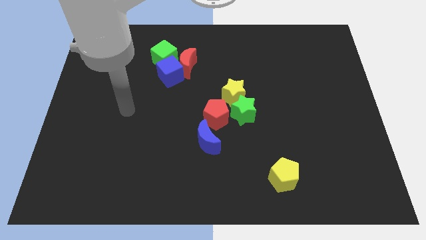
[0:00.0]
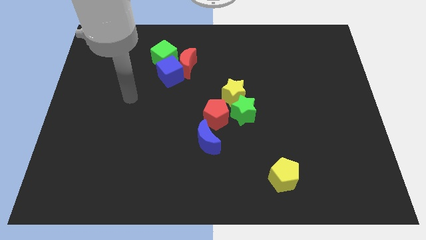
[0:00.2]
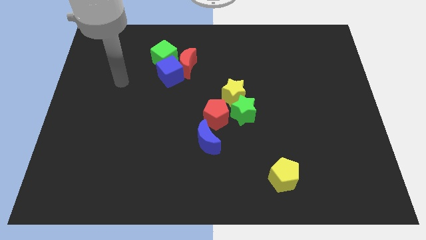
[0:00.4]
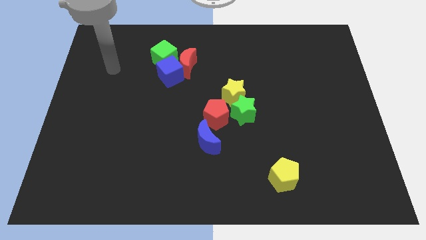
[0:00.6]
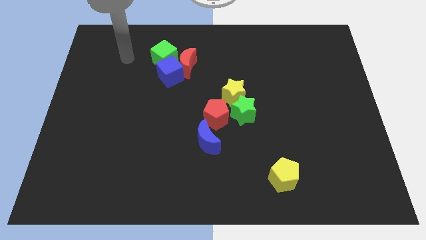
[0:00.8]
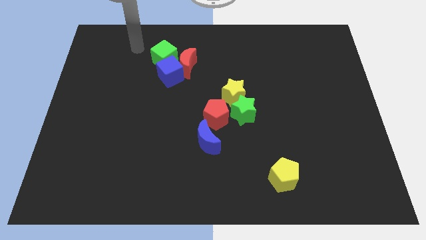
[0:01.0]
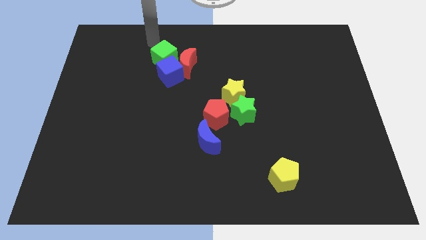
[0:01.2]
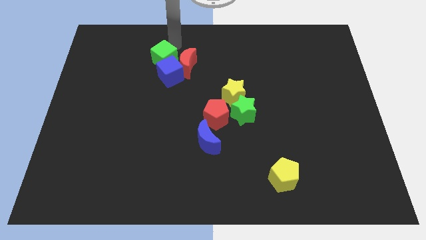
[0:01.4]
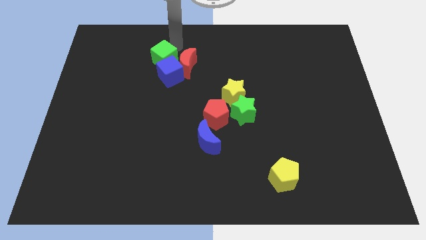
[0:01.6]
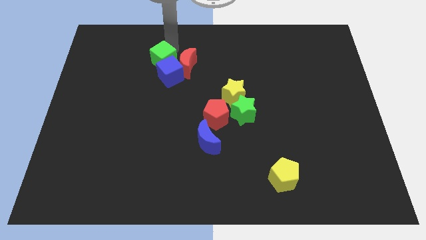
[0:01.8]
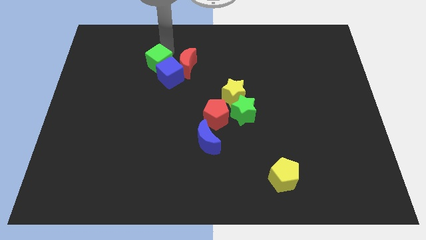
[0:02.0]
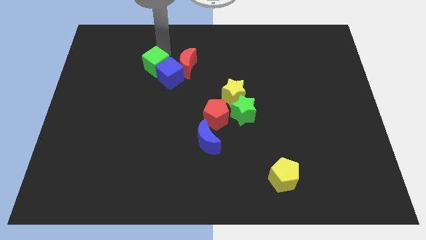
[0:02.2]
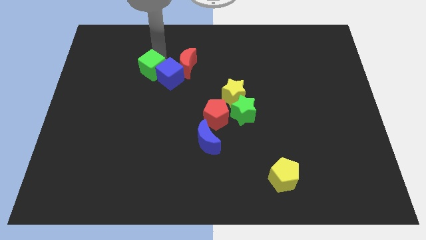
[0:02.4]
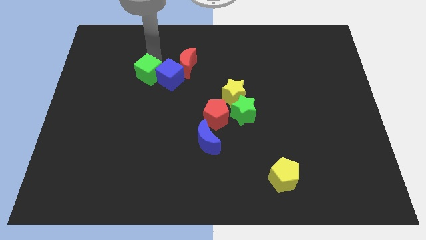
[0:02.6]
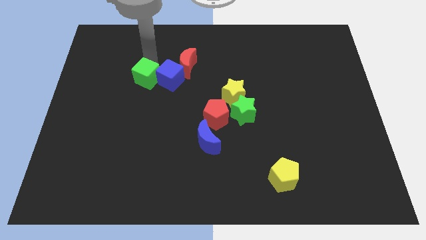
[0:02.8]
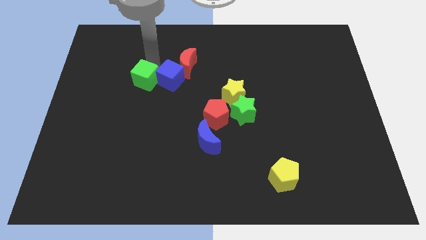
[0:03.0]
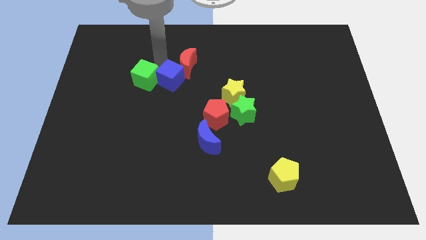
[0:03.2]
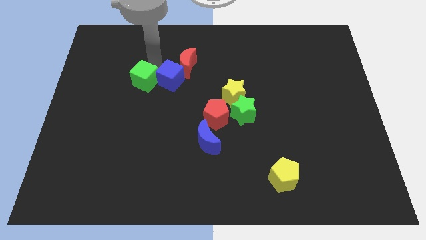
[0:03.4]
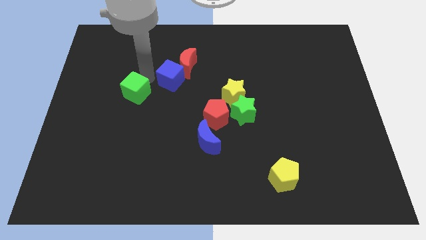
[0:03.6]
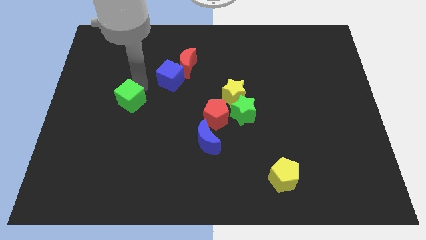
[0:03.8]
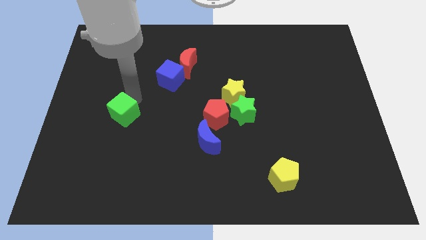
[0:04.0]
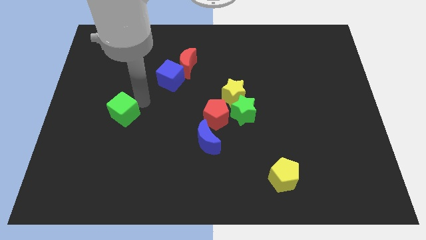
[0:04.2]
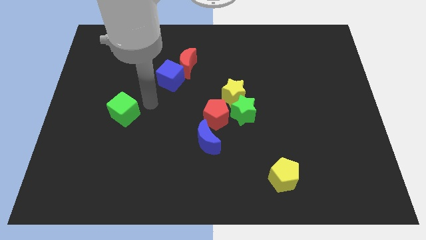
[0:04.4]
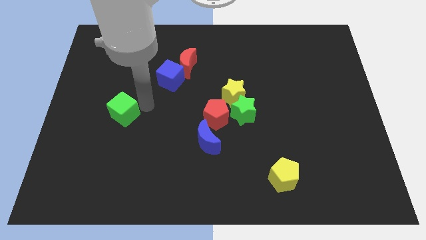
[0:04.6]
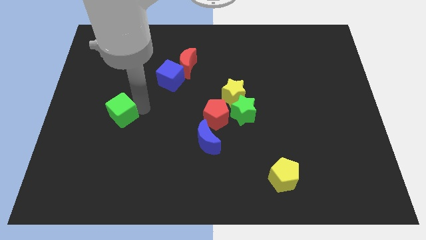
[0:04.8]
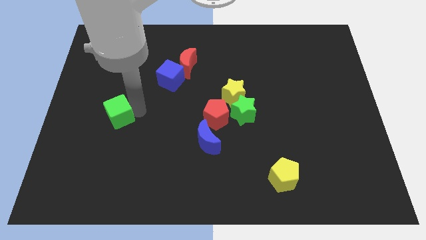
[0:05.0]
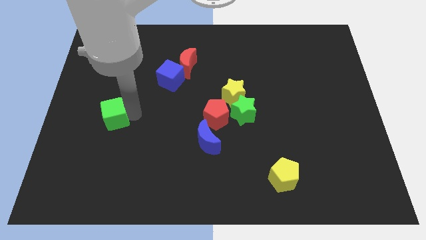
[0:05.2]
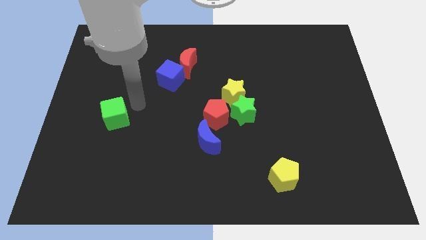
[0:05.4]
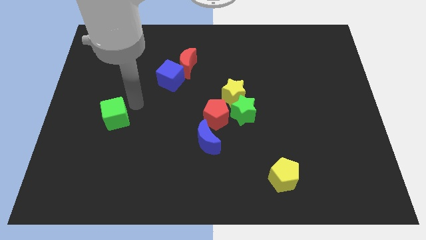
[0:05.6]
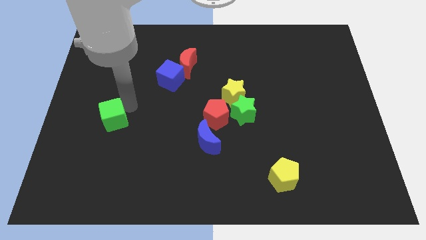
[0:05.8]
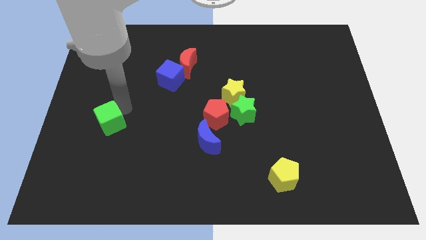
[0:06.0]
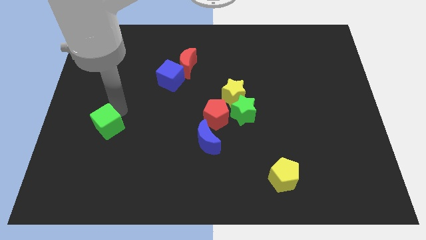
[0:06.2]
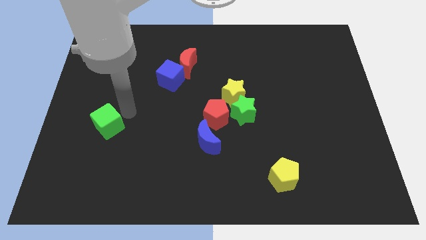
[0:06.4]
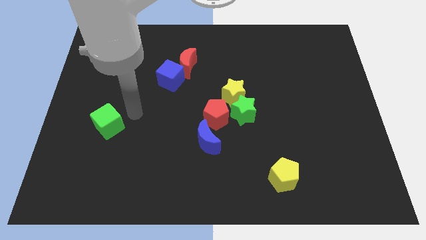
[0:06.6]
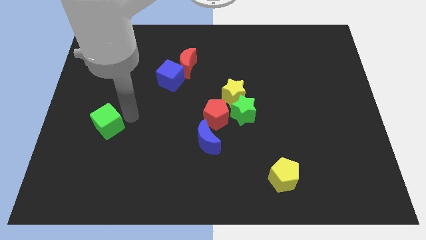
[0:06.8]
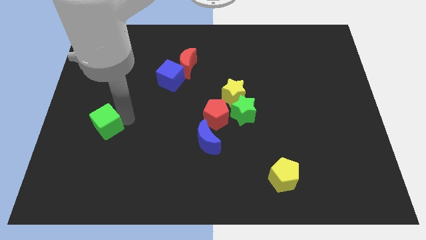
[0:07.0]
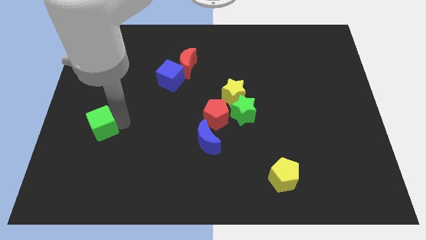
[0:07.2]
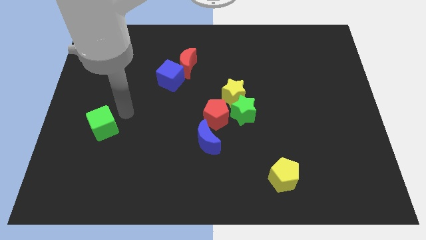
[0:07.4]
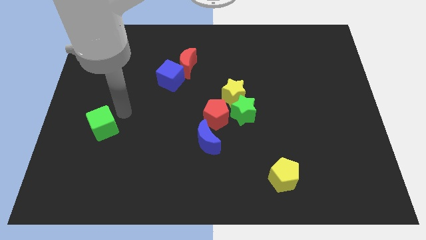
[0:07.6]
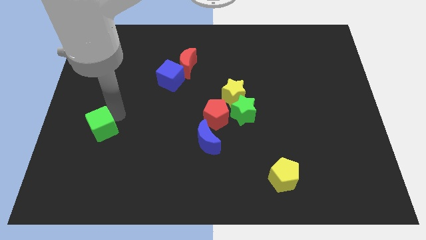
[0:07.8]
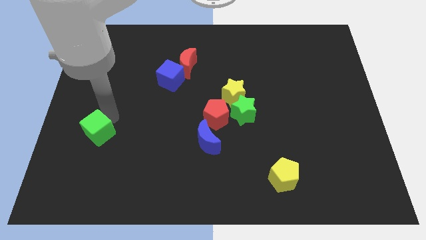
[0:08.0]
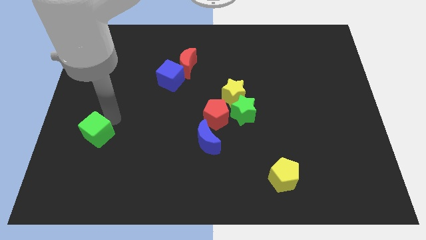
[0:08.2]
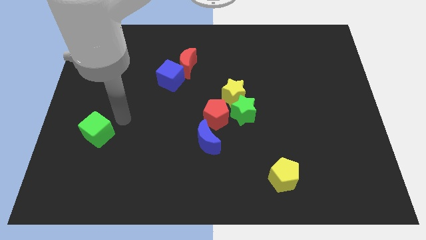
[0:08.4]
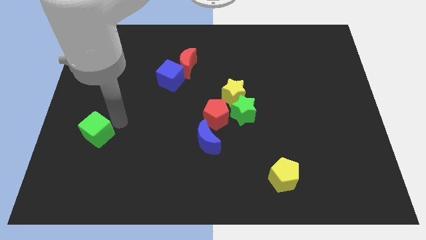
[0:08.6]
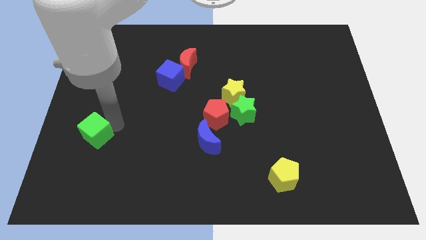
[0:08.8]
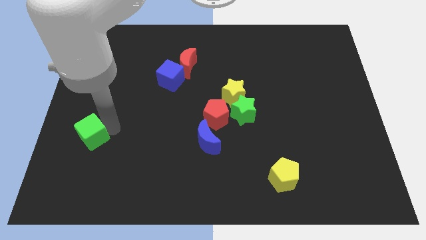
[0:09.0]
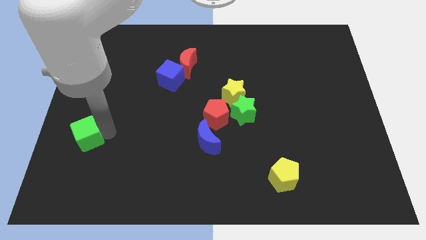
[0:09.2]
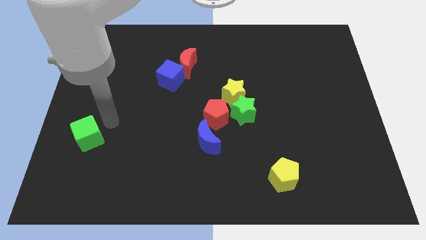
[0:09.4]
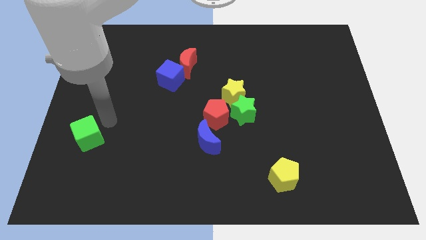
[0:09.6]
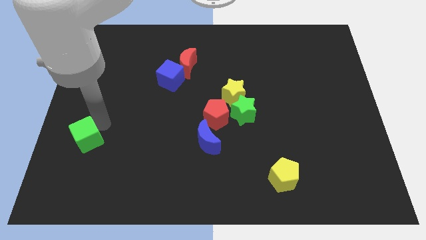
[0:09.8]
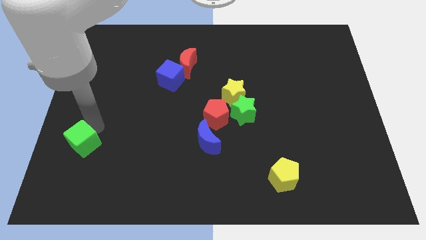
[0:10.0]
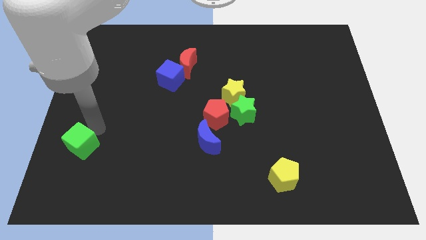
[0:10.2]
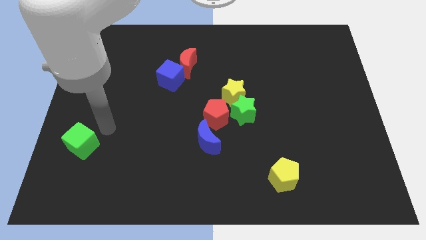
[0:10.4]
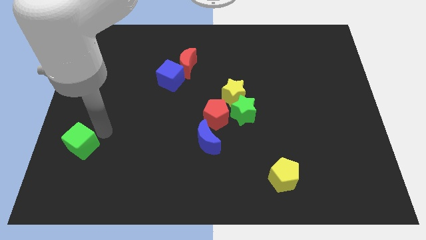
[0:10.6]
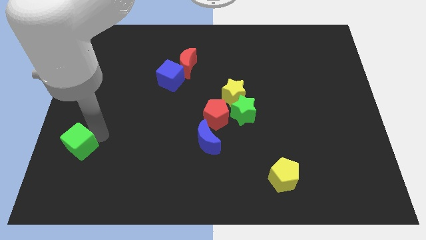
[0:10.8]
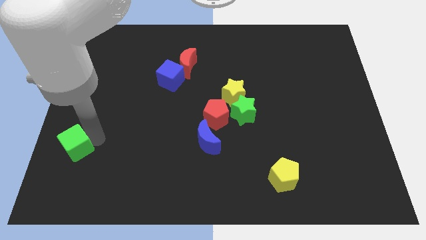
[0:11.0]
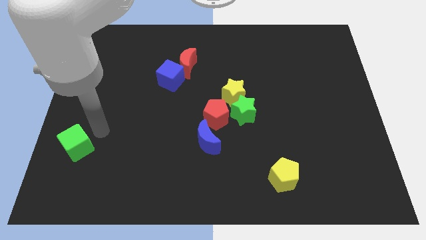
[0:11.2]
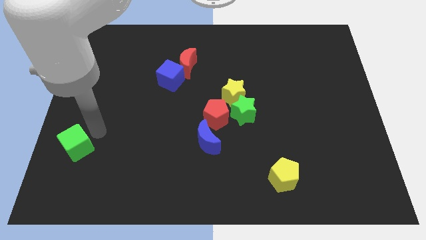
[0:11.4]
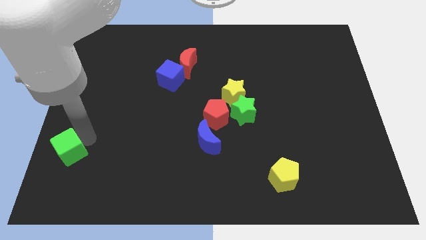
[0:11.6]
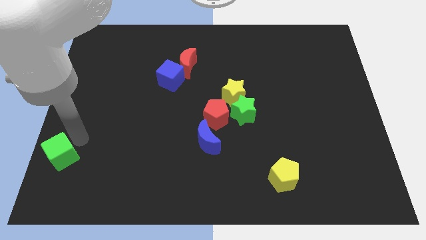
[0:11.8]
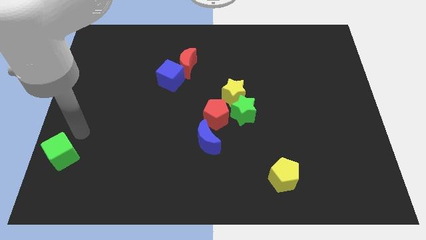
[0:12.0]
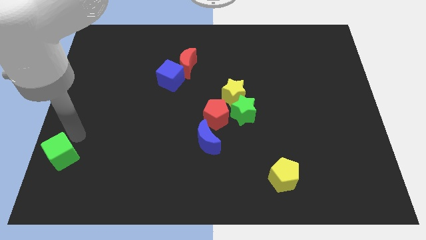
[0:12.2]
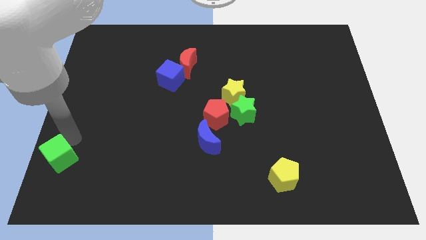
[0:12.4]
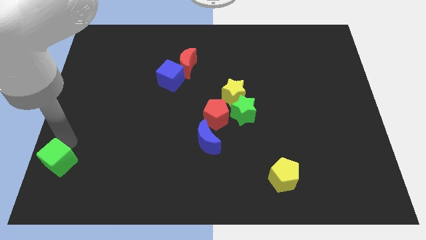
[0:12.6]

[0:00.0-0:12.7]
slide the green cube to the bottom left of the board
